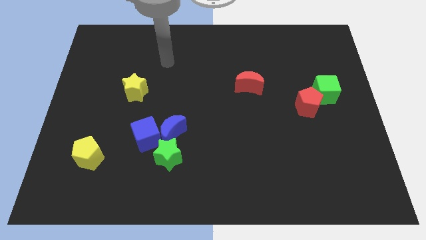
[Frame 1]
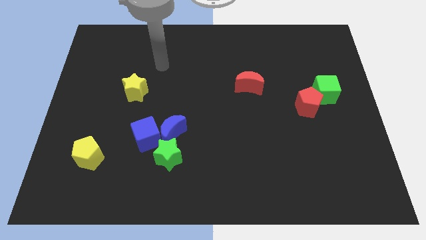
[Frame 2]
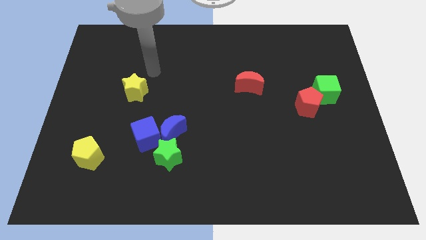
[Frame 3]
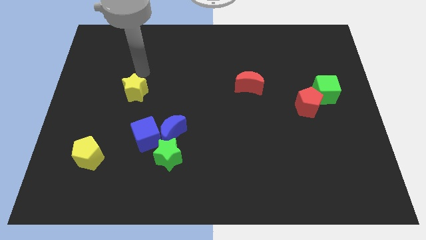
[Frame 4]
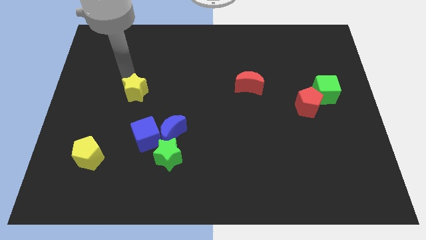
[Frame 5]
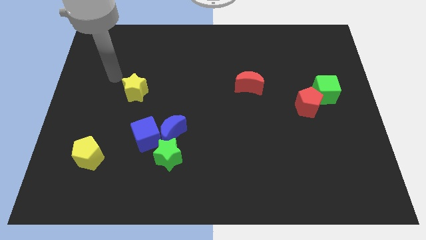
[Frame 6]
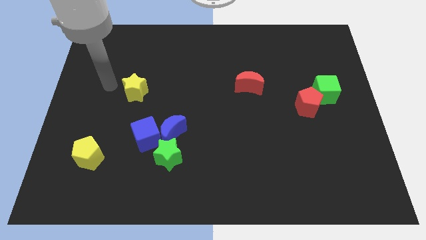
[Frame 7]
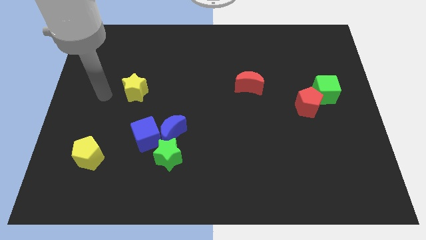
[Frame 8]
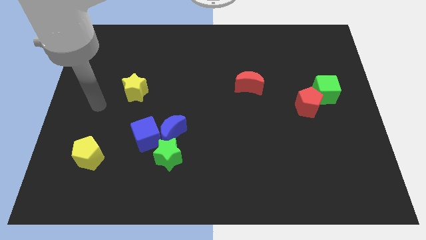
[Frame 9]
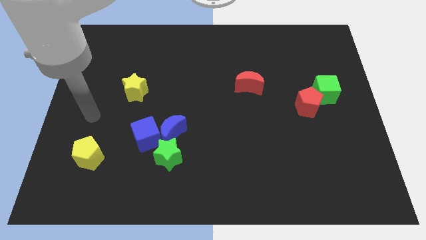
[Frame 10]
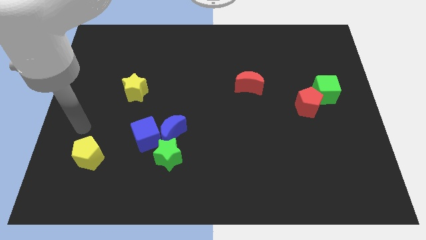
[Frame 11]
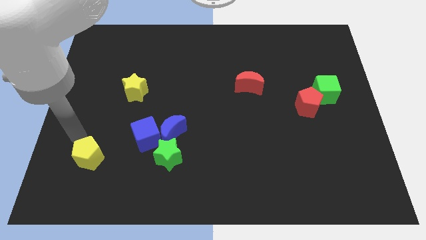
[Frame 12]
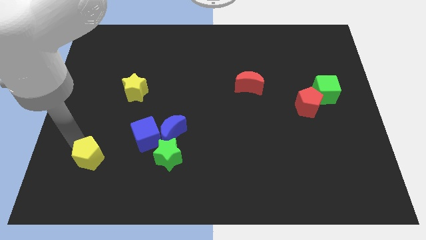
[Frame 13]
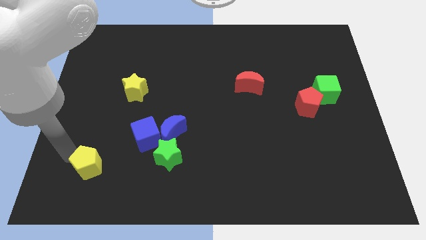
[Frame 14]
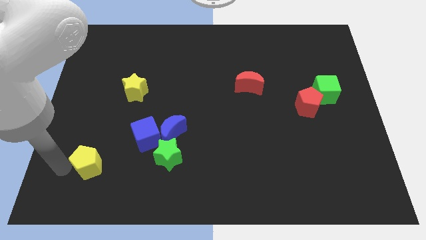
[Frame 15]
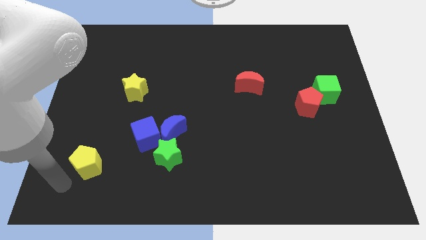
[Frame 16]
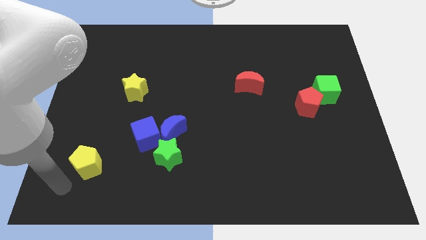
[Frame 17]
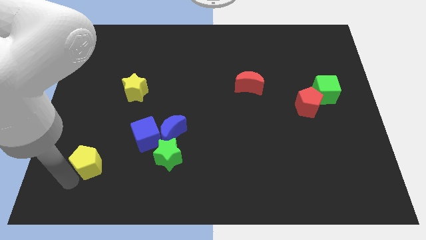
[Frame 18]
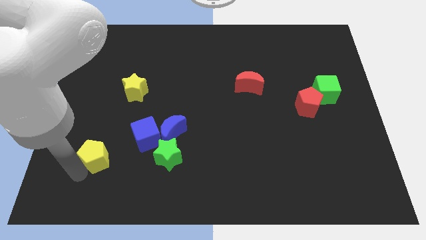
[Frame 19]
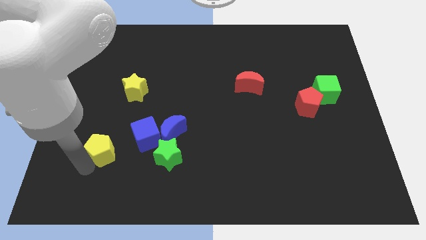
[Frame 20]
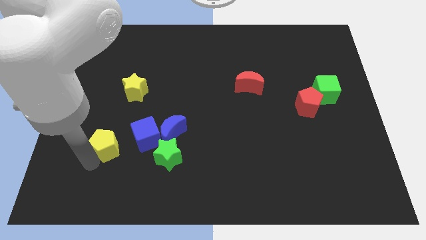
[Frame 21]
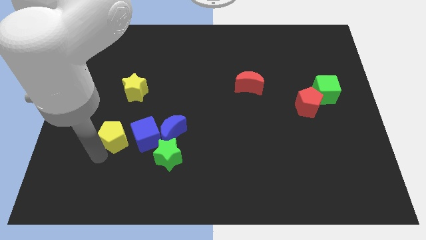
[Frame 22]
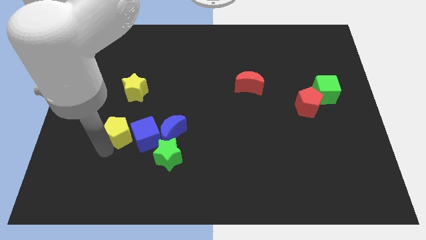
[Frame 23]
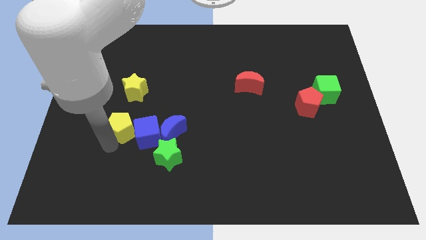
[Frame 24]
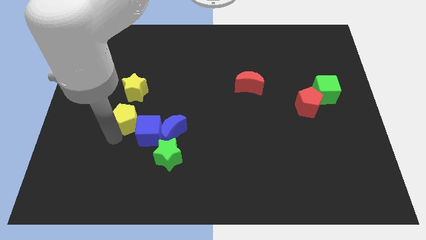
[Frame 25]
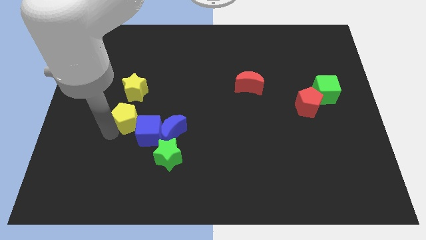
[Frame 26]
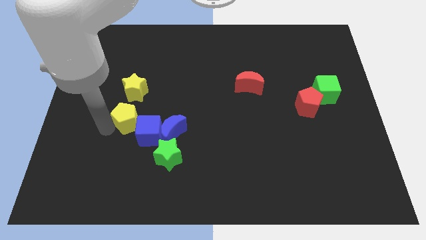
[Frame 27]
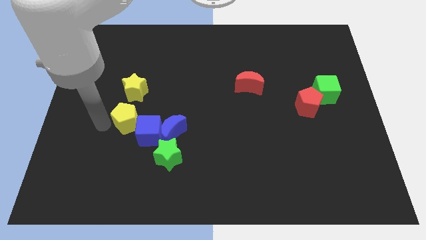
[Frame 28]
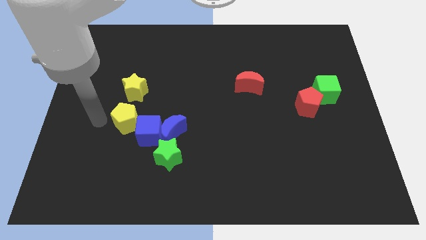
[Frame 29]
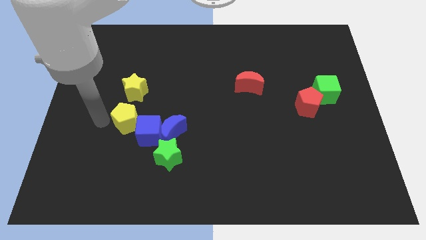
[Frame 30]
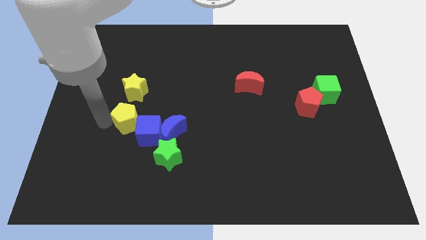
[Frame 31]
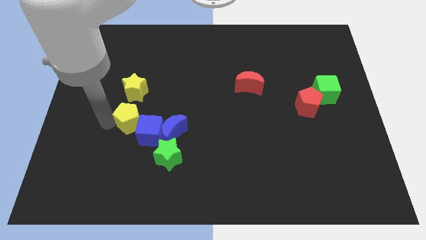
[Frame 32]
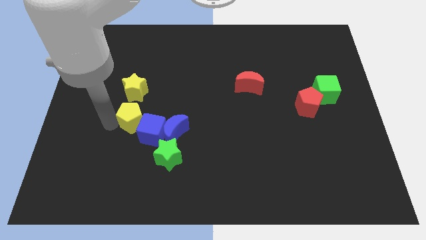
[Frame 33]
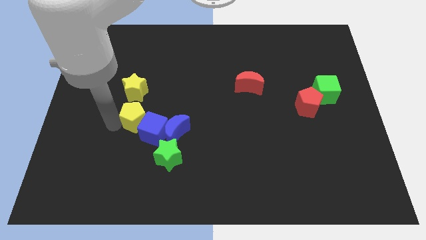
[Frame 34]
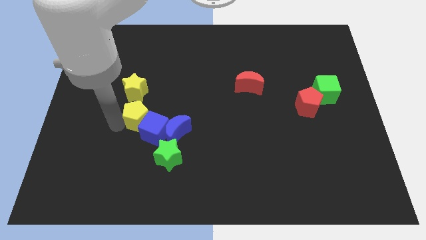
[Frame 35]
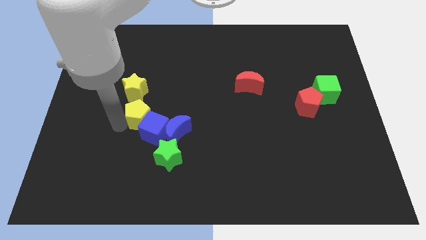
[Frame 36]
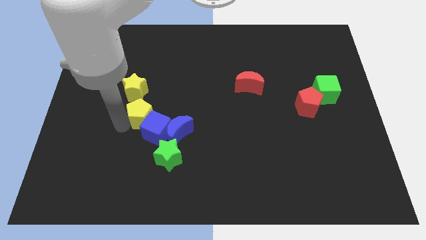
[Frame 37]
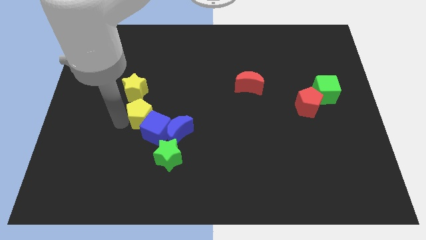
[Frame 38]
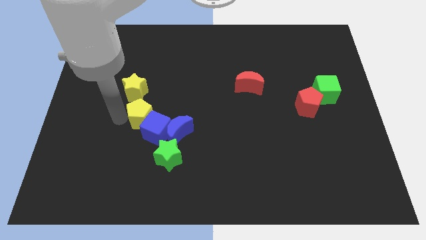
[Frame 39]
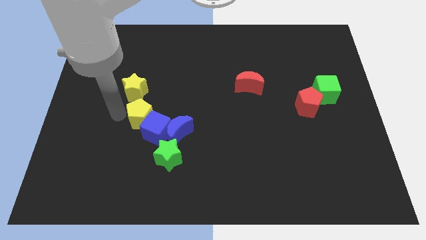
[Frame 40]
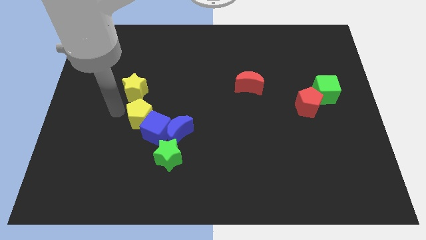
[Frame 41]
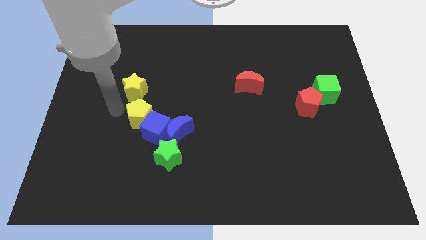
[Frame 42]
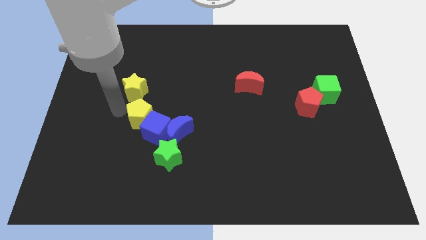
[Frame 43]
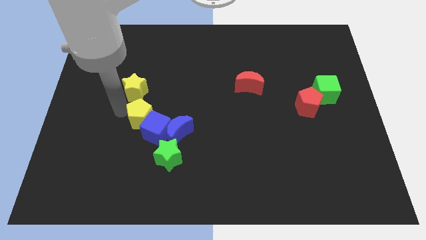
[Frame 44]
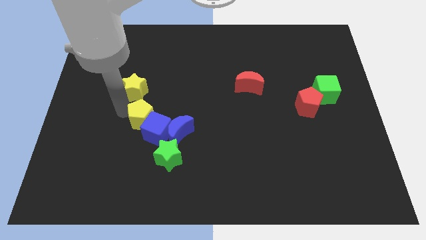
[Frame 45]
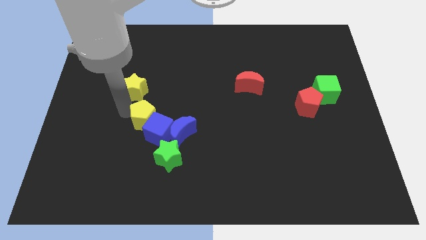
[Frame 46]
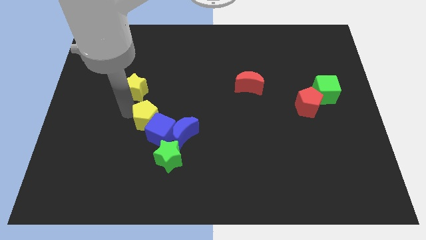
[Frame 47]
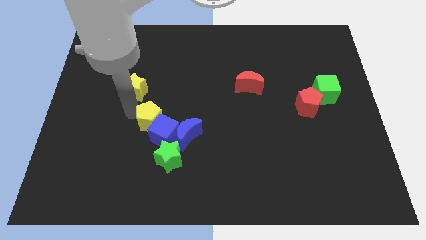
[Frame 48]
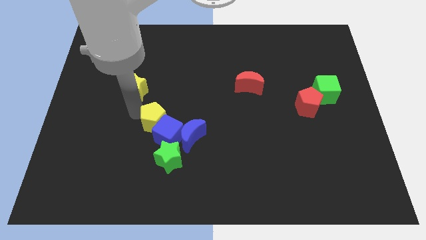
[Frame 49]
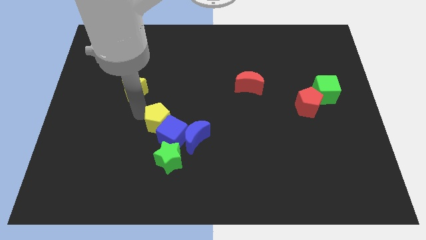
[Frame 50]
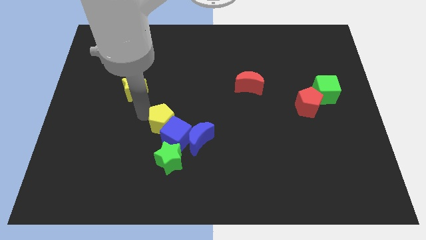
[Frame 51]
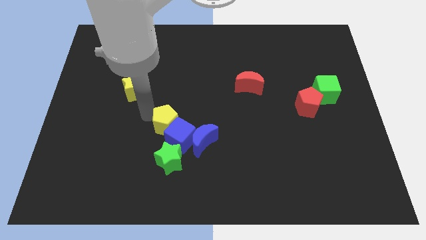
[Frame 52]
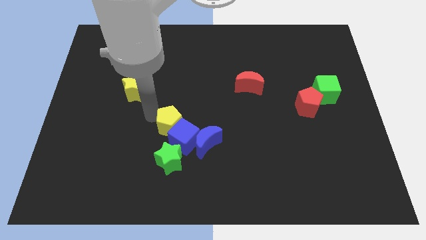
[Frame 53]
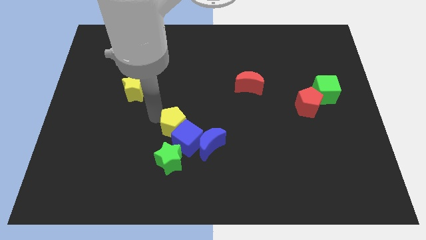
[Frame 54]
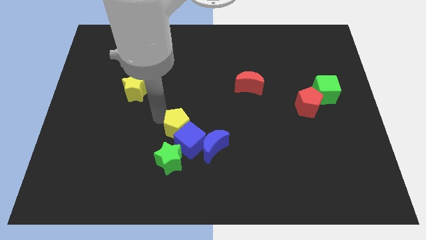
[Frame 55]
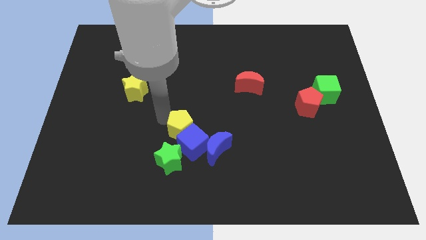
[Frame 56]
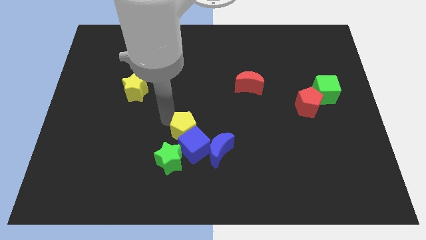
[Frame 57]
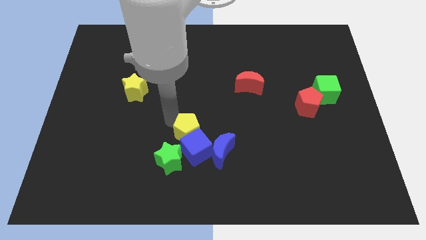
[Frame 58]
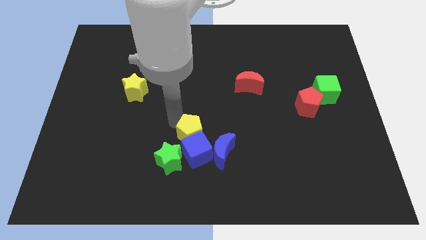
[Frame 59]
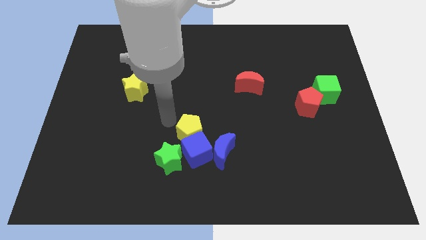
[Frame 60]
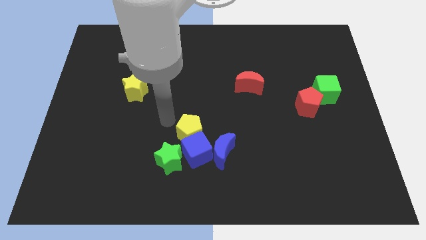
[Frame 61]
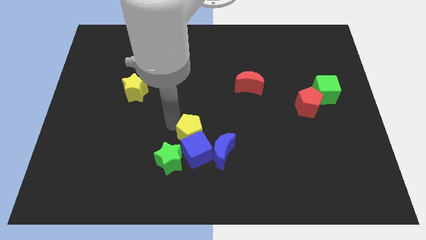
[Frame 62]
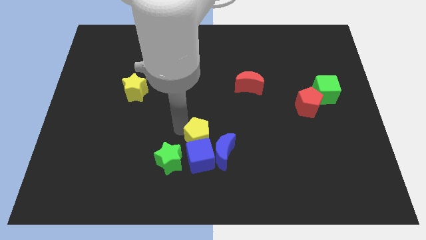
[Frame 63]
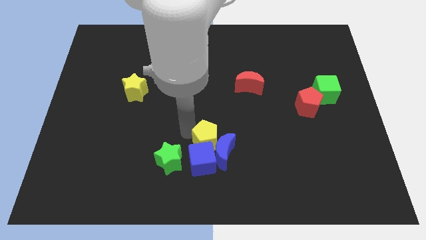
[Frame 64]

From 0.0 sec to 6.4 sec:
put the yellow pentagon to the blue moon
